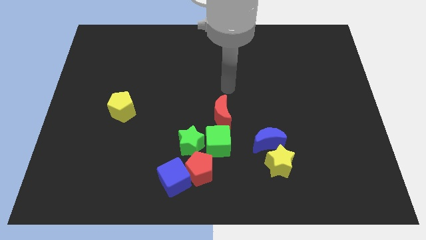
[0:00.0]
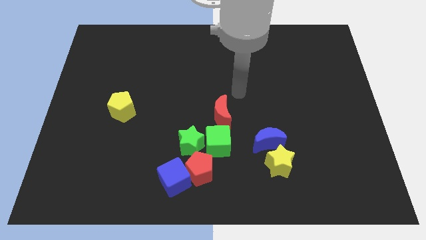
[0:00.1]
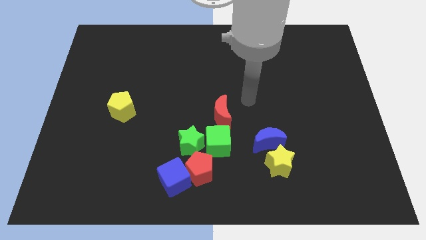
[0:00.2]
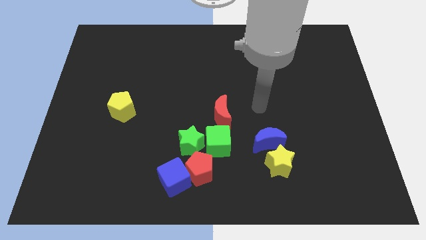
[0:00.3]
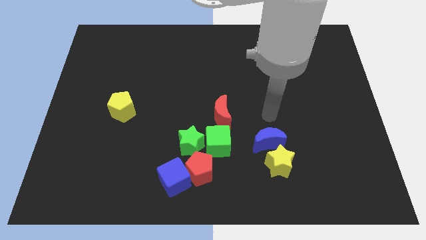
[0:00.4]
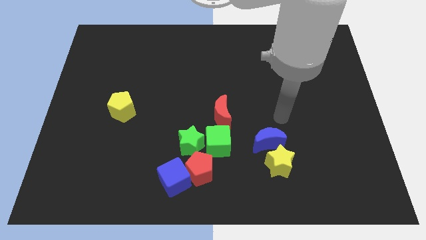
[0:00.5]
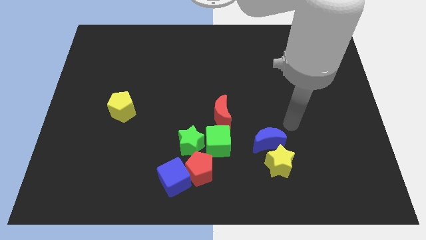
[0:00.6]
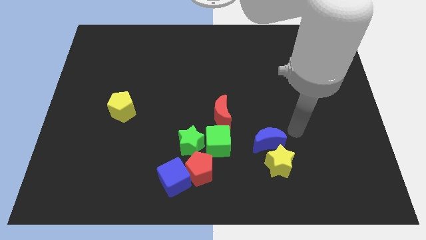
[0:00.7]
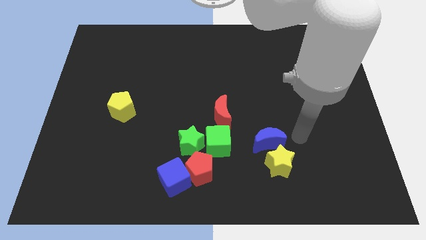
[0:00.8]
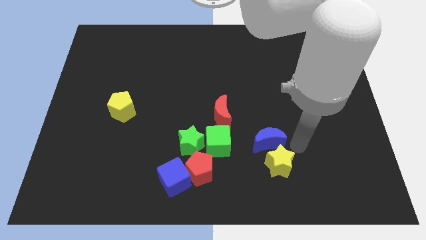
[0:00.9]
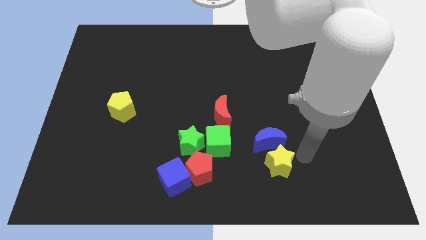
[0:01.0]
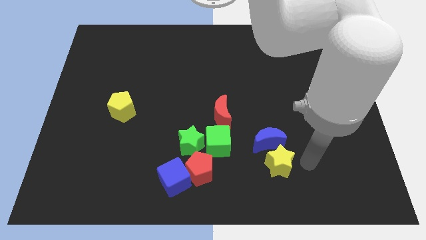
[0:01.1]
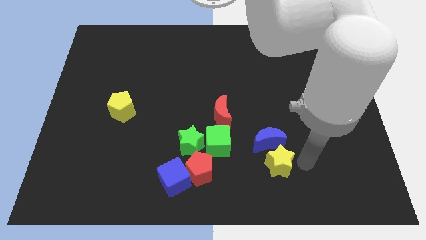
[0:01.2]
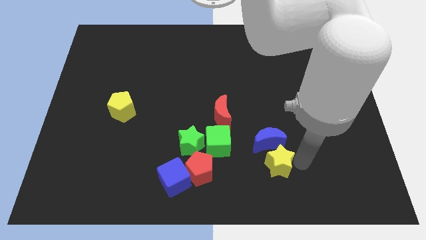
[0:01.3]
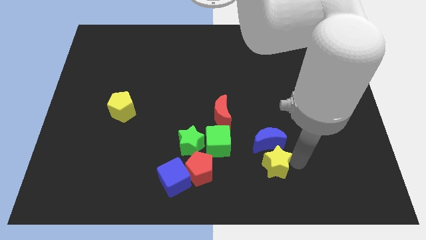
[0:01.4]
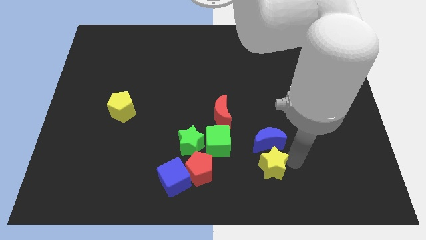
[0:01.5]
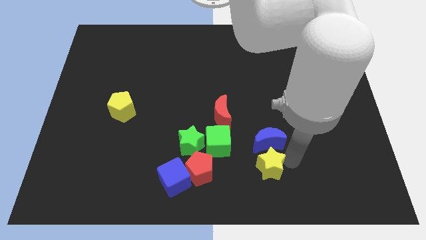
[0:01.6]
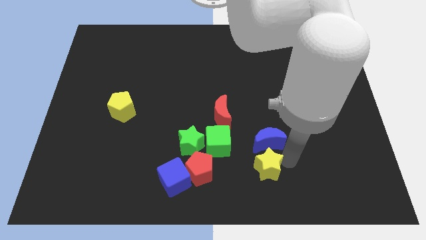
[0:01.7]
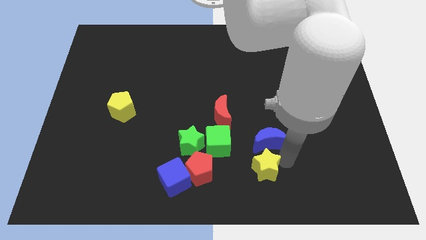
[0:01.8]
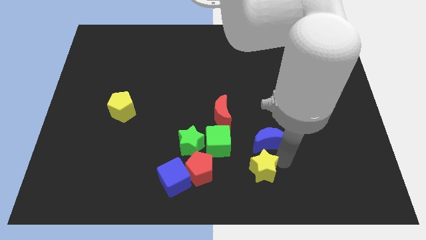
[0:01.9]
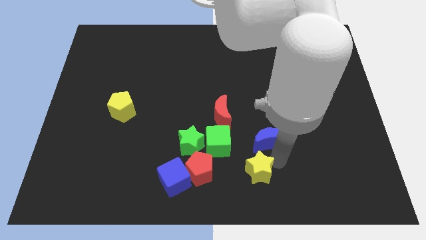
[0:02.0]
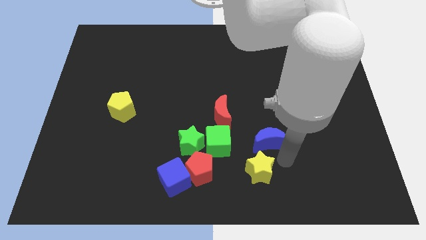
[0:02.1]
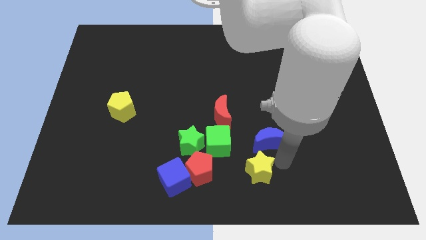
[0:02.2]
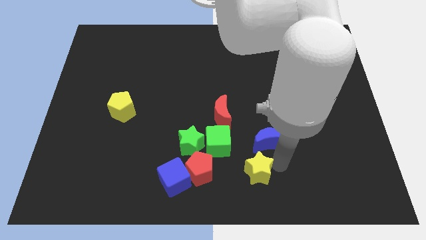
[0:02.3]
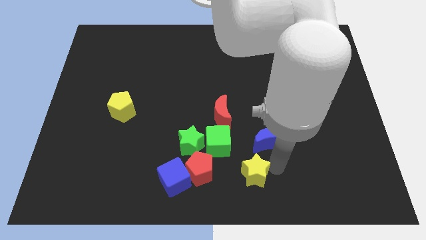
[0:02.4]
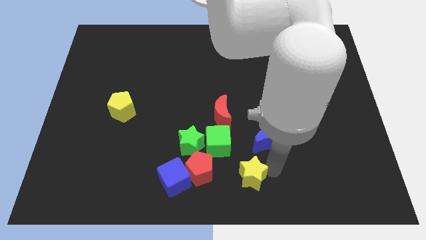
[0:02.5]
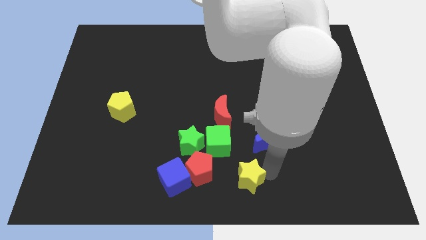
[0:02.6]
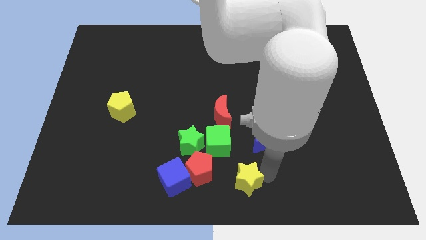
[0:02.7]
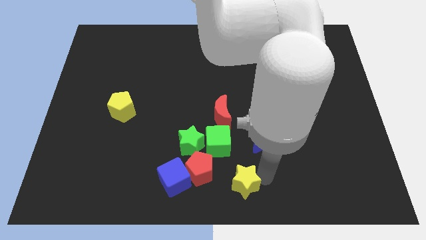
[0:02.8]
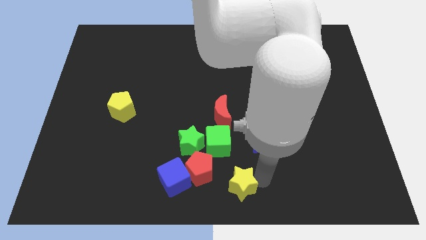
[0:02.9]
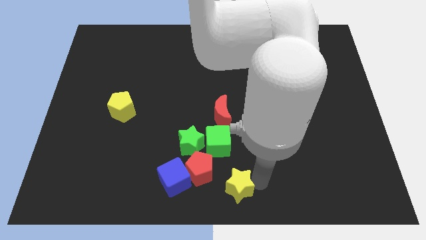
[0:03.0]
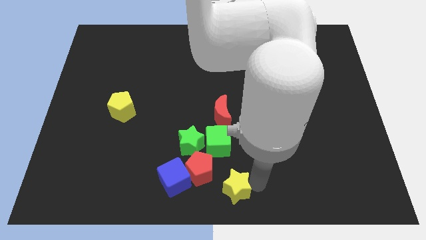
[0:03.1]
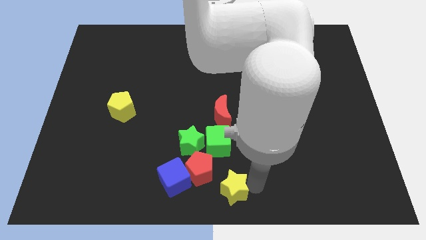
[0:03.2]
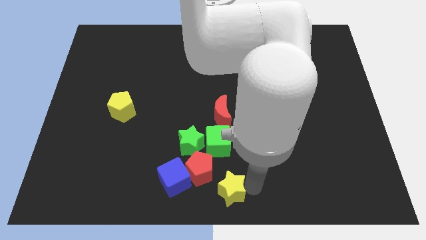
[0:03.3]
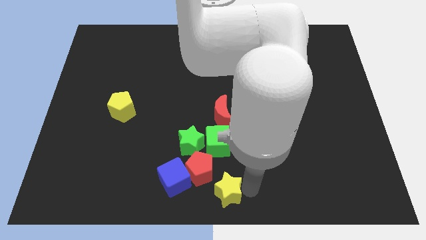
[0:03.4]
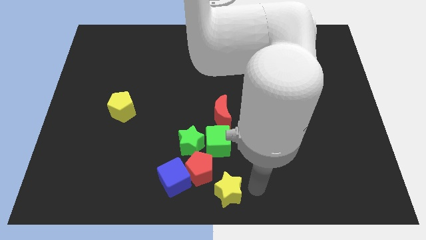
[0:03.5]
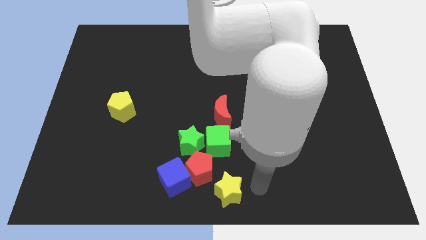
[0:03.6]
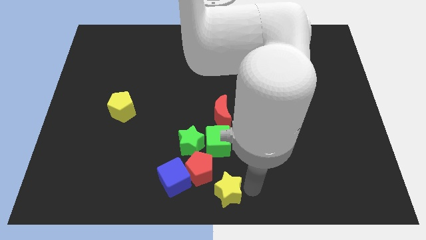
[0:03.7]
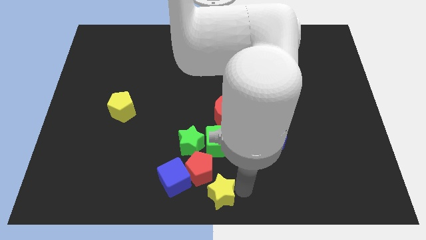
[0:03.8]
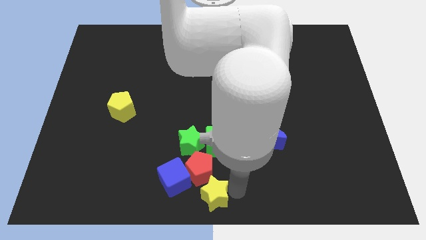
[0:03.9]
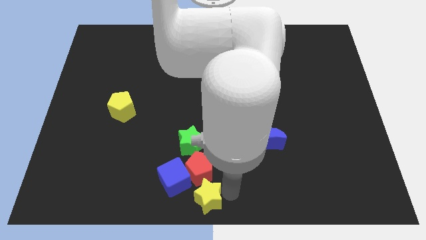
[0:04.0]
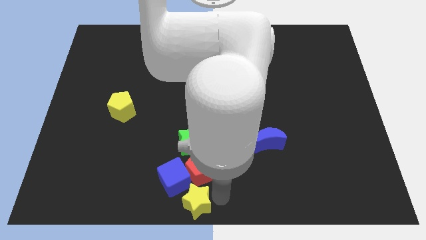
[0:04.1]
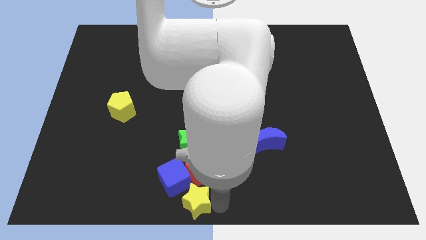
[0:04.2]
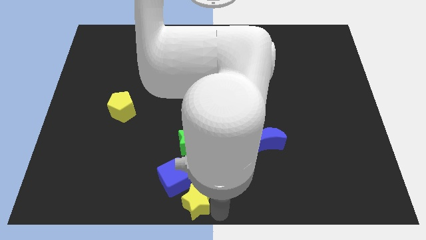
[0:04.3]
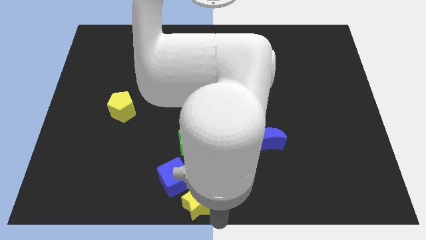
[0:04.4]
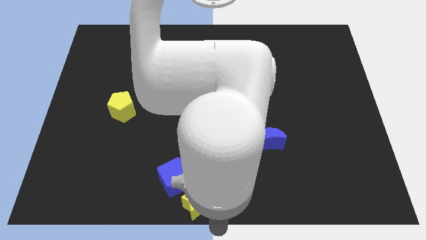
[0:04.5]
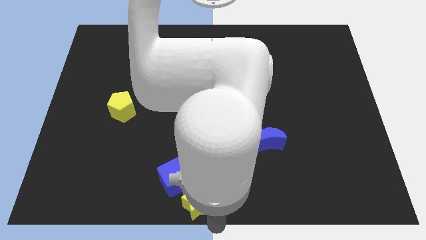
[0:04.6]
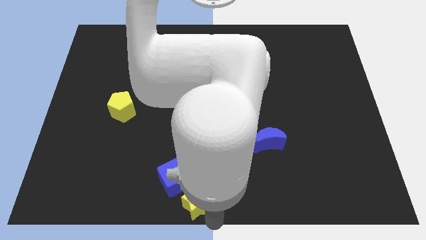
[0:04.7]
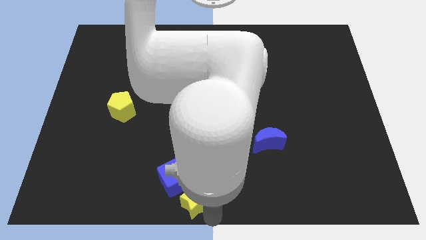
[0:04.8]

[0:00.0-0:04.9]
move the yellow star towards the blue cube

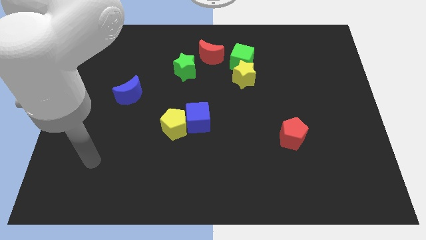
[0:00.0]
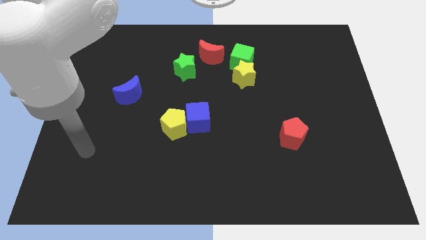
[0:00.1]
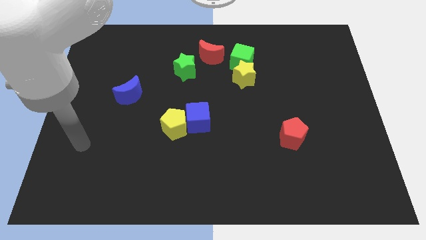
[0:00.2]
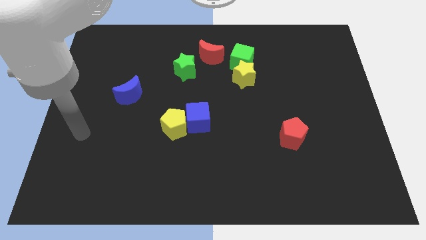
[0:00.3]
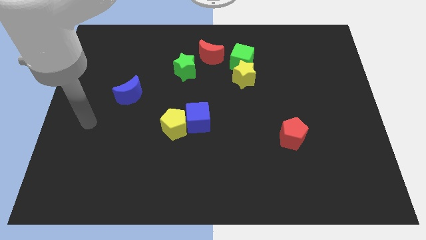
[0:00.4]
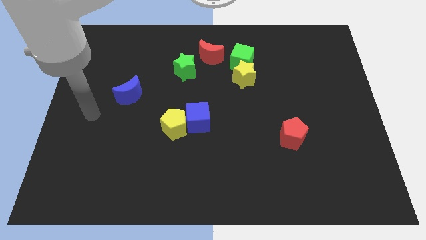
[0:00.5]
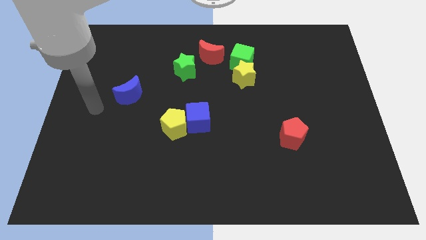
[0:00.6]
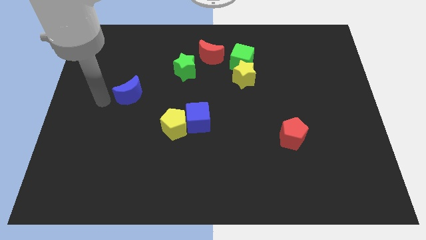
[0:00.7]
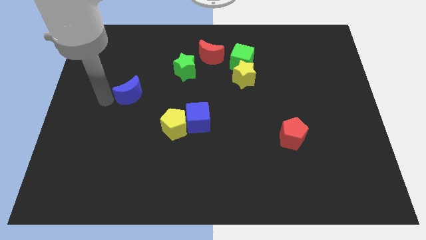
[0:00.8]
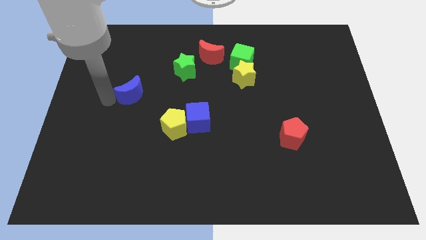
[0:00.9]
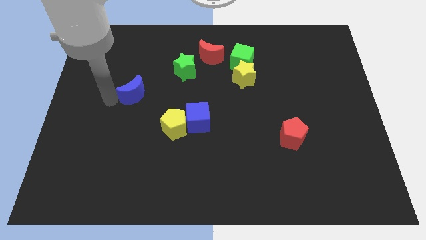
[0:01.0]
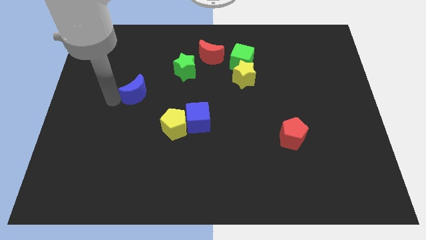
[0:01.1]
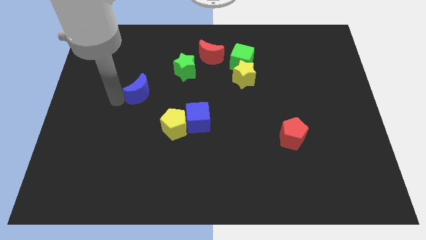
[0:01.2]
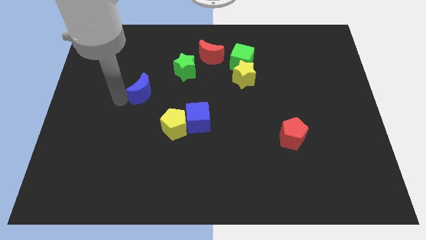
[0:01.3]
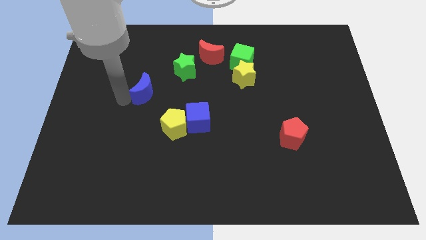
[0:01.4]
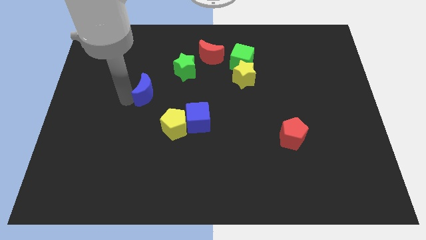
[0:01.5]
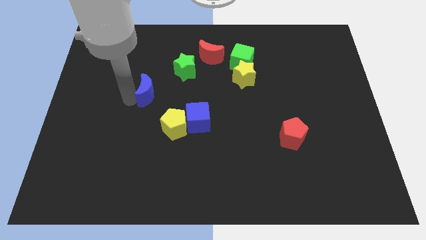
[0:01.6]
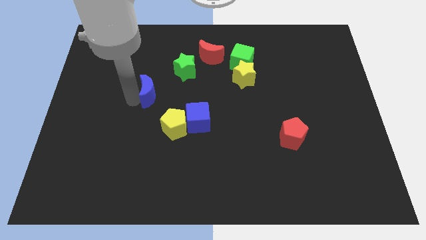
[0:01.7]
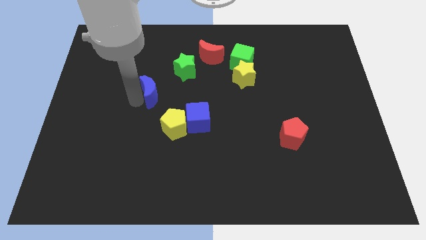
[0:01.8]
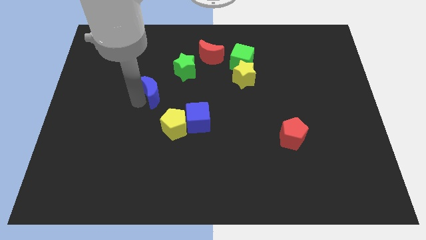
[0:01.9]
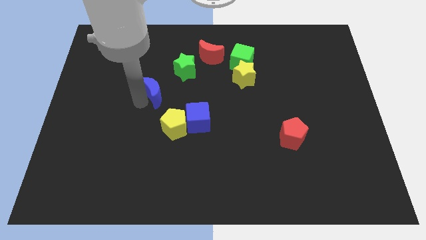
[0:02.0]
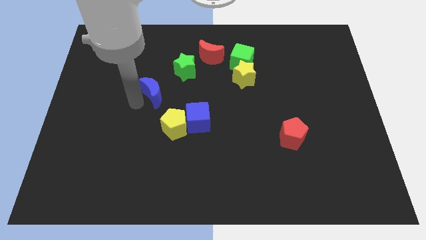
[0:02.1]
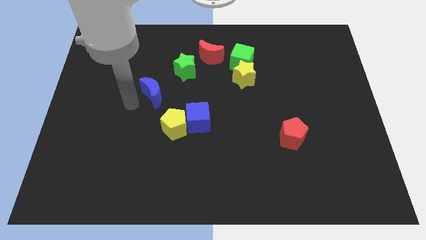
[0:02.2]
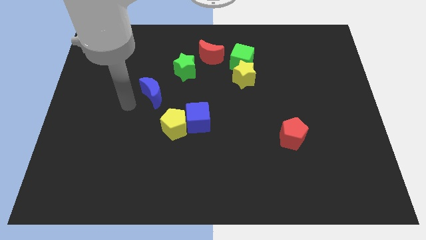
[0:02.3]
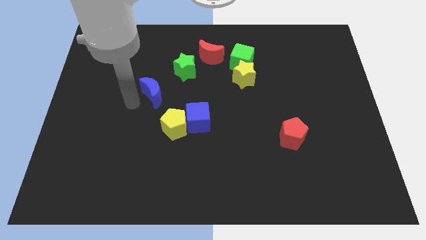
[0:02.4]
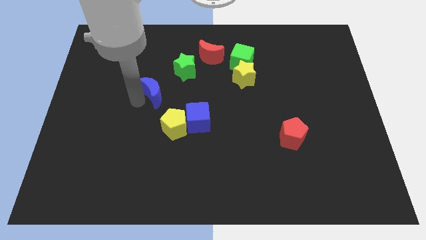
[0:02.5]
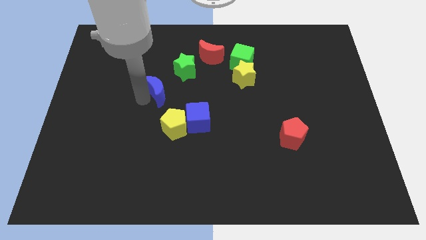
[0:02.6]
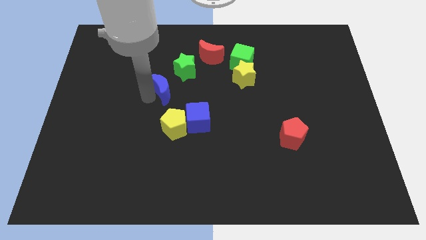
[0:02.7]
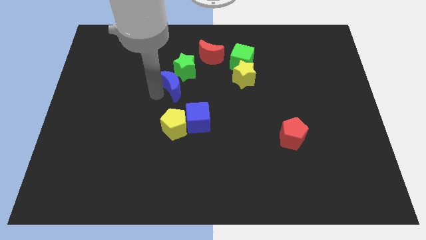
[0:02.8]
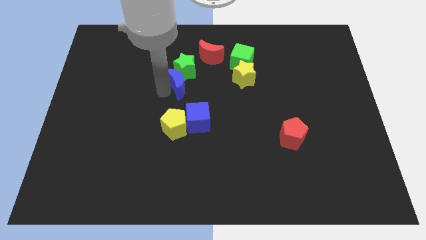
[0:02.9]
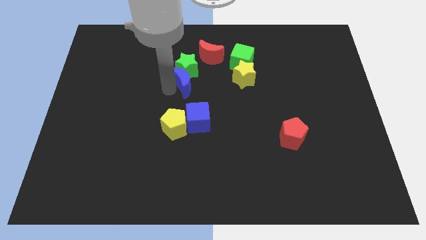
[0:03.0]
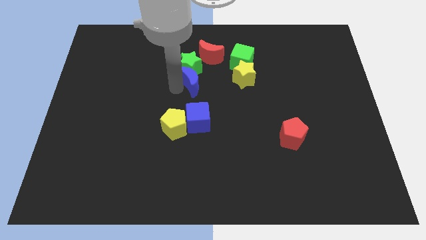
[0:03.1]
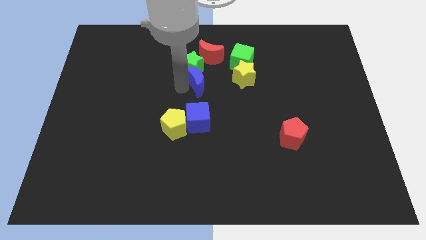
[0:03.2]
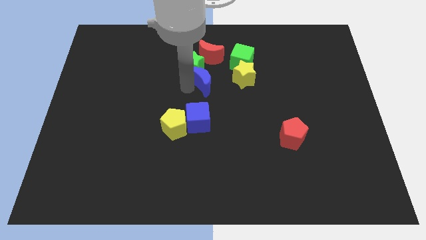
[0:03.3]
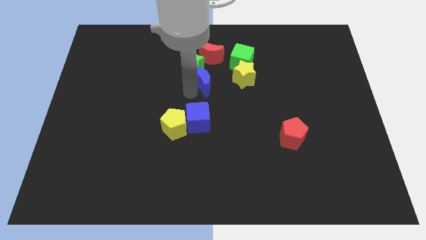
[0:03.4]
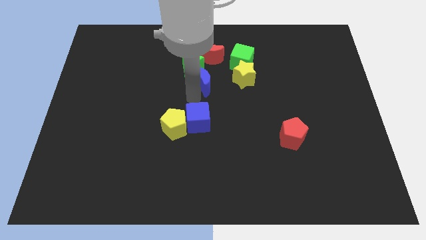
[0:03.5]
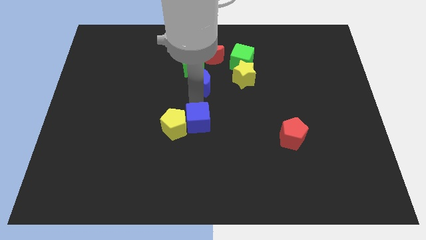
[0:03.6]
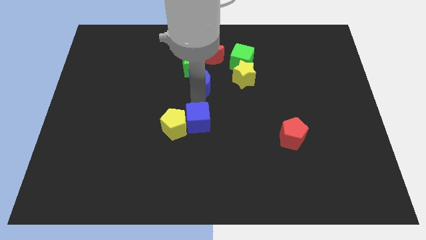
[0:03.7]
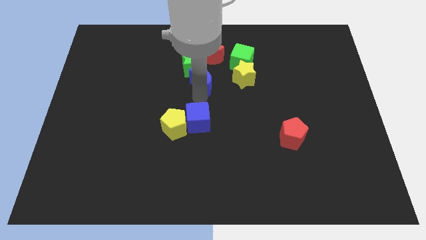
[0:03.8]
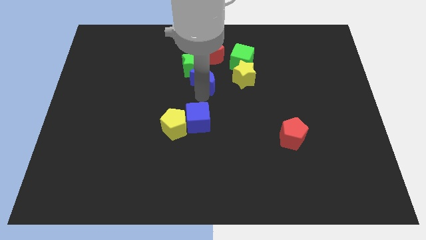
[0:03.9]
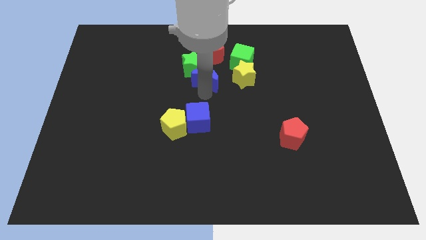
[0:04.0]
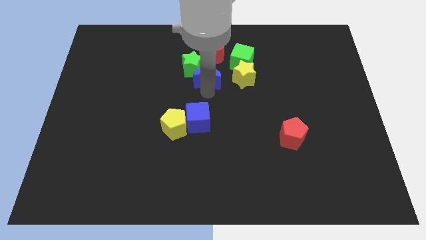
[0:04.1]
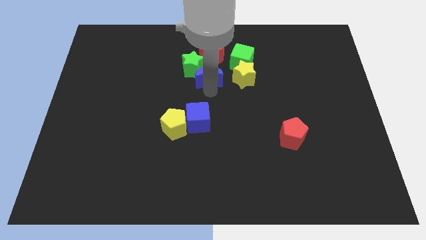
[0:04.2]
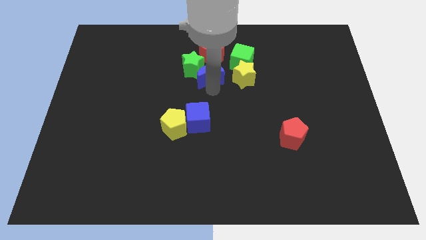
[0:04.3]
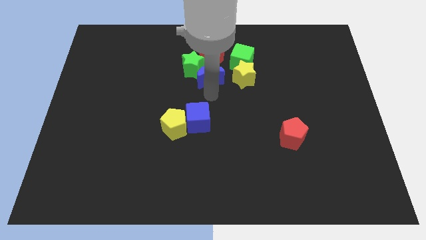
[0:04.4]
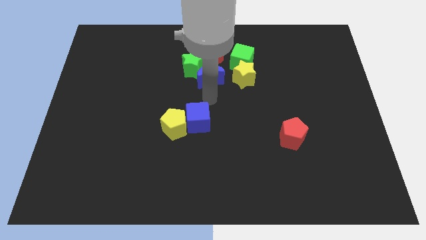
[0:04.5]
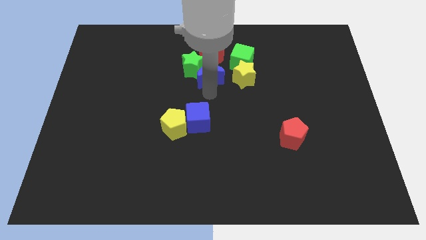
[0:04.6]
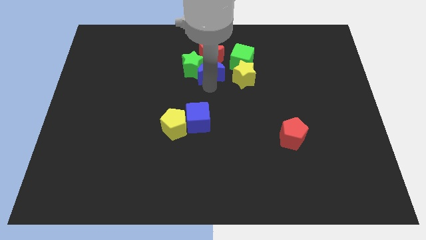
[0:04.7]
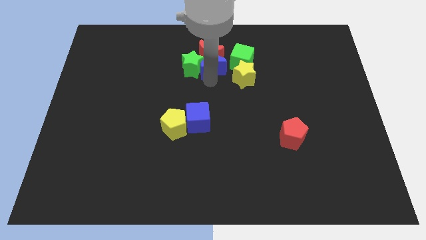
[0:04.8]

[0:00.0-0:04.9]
put the blue moon next to the red moon
